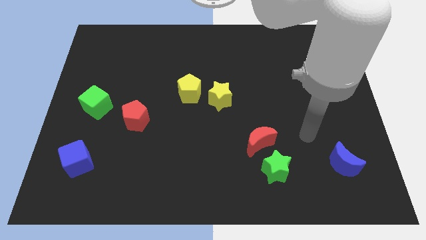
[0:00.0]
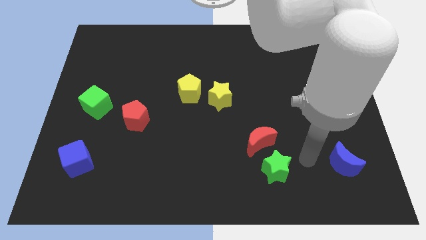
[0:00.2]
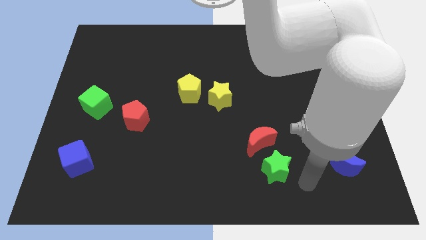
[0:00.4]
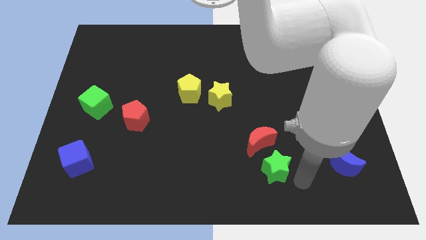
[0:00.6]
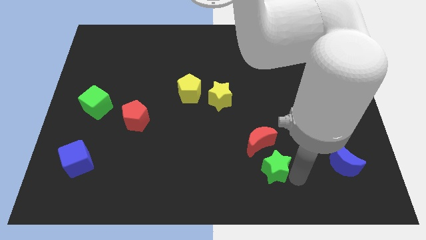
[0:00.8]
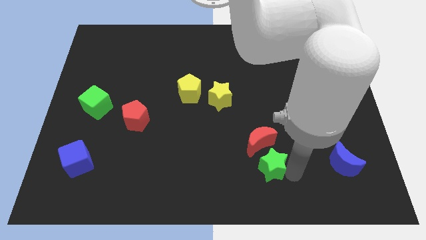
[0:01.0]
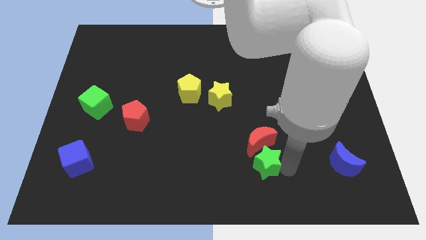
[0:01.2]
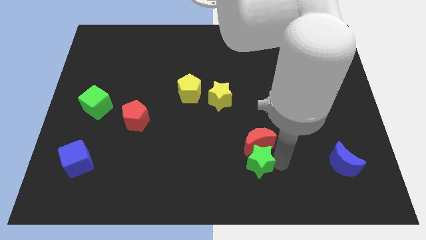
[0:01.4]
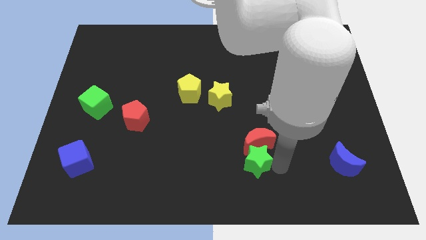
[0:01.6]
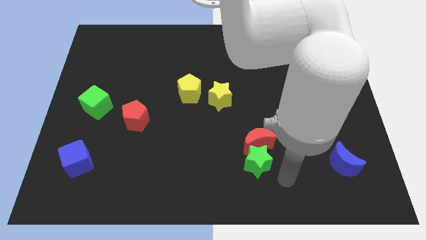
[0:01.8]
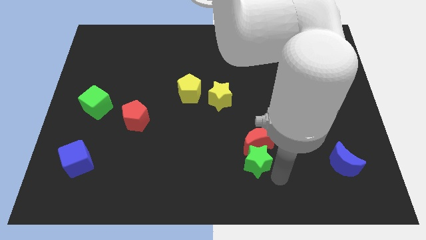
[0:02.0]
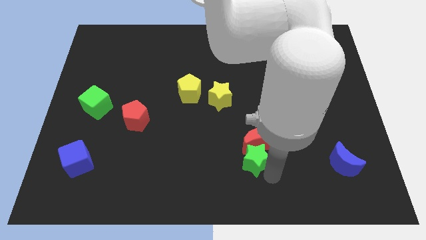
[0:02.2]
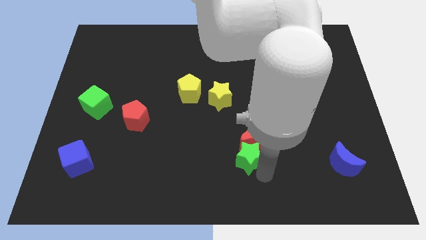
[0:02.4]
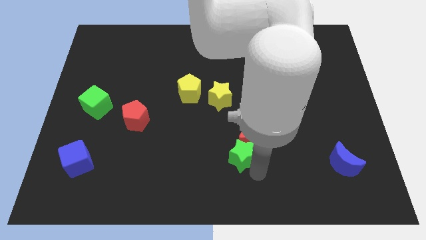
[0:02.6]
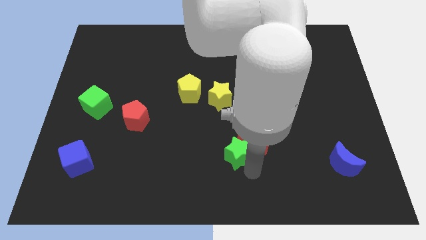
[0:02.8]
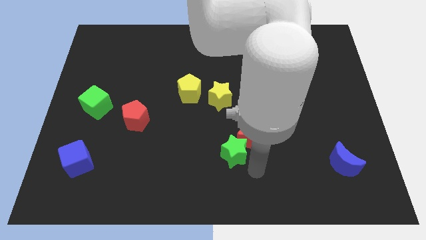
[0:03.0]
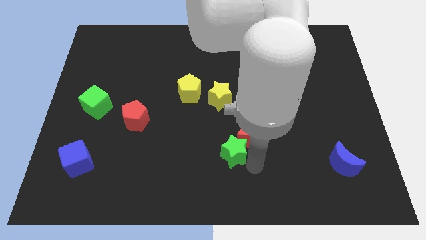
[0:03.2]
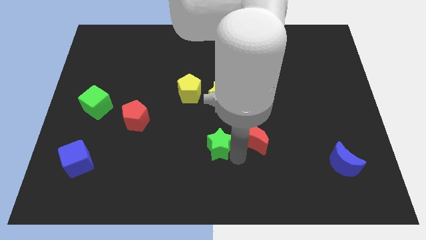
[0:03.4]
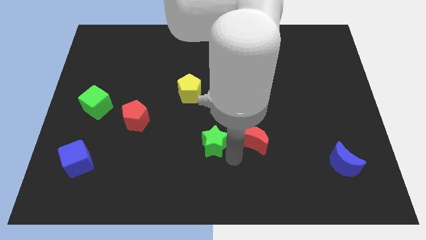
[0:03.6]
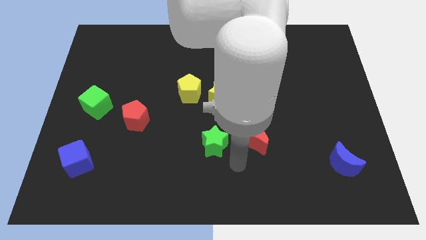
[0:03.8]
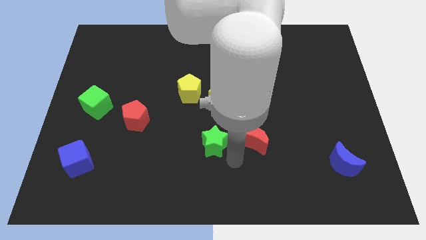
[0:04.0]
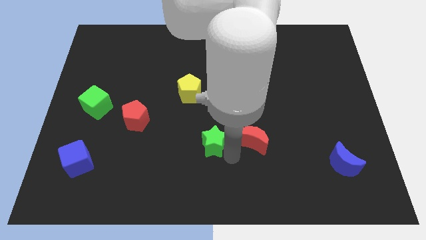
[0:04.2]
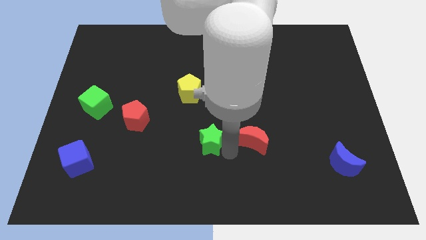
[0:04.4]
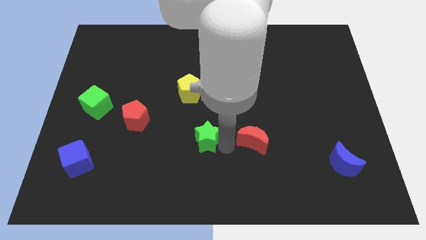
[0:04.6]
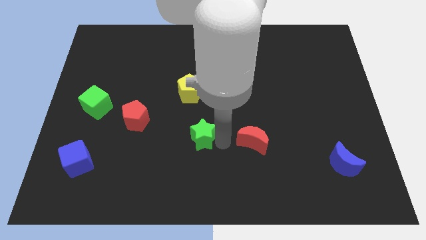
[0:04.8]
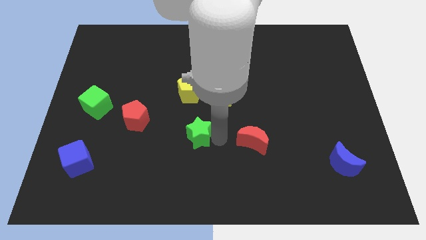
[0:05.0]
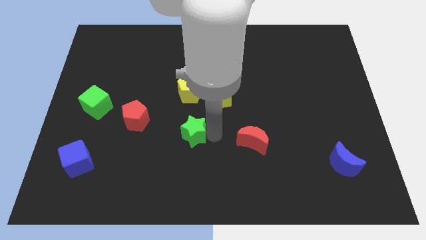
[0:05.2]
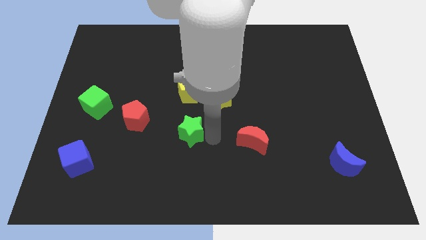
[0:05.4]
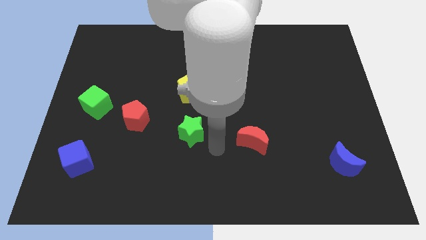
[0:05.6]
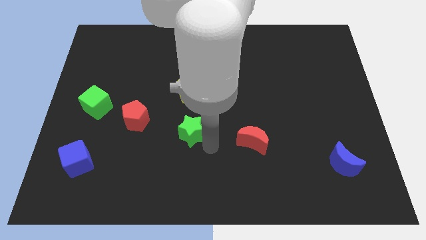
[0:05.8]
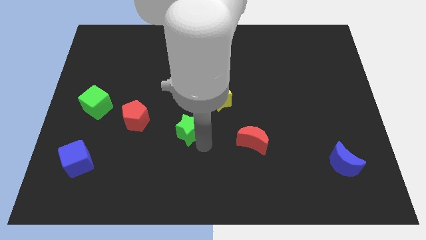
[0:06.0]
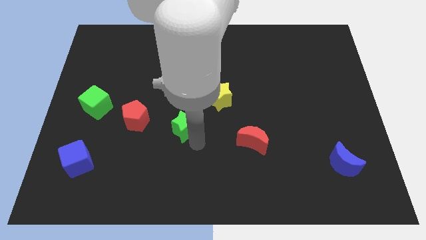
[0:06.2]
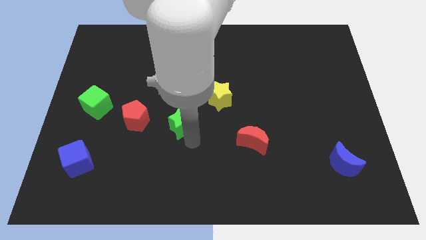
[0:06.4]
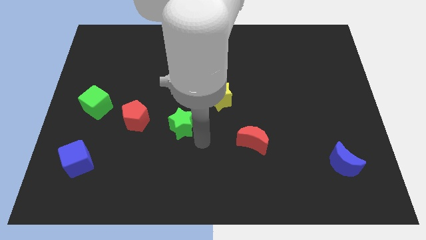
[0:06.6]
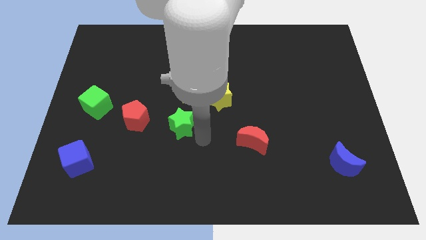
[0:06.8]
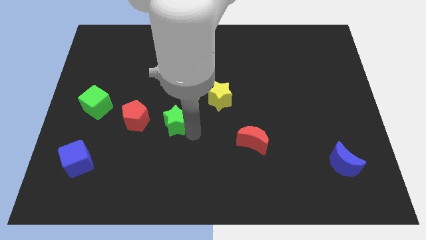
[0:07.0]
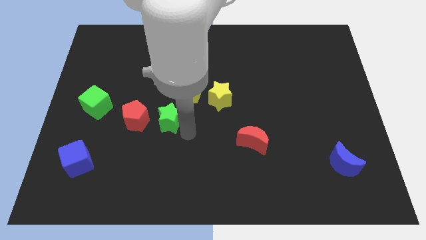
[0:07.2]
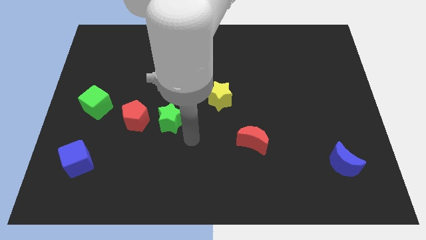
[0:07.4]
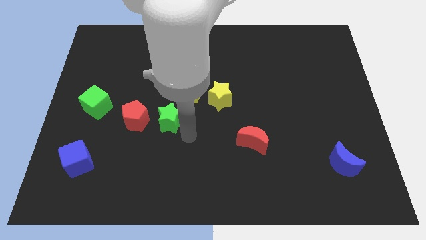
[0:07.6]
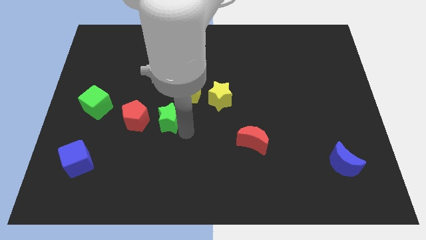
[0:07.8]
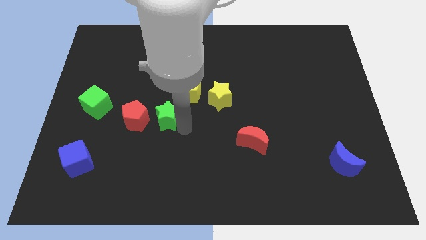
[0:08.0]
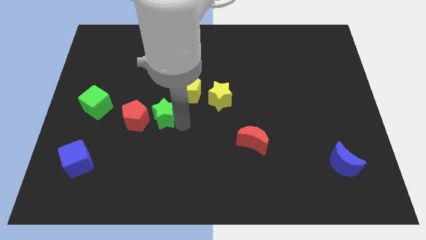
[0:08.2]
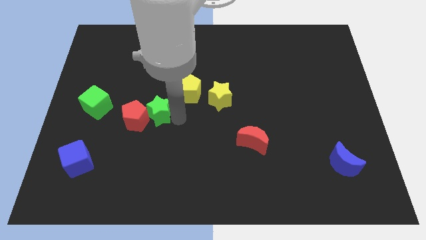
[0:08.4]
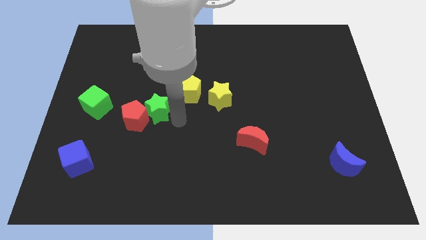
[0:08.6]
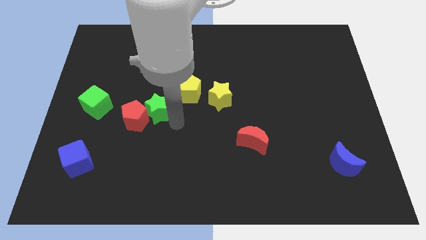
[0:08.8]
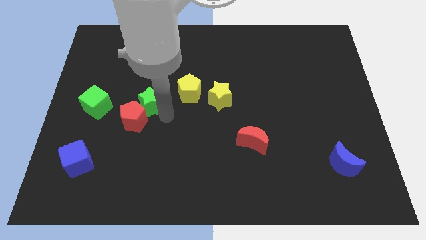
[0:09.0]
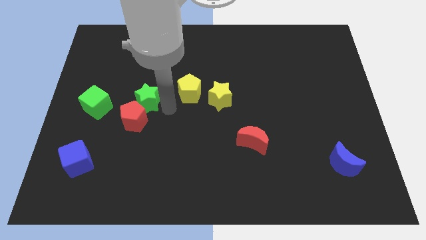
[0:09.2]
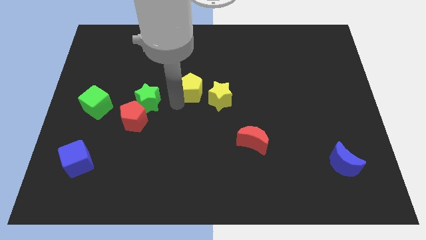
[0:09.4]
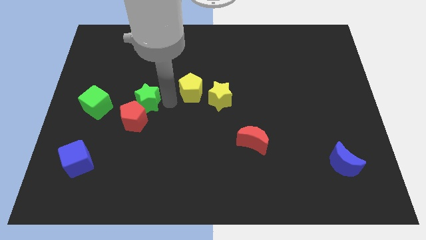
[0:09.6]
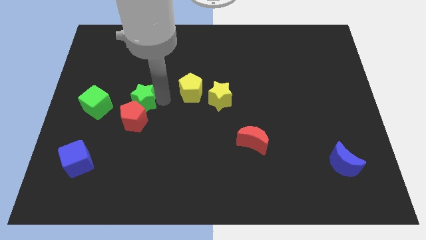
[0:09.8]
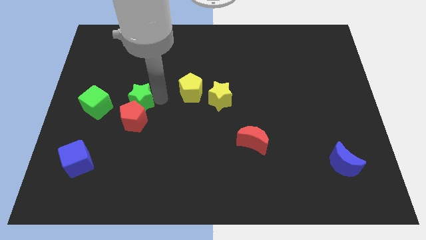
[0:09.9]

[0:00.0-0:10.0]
put the green star to the top left of the red pentagon

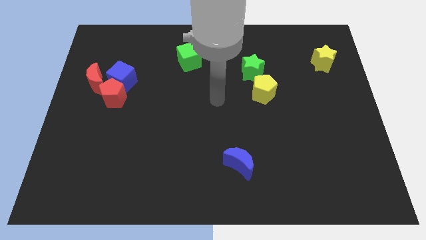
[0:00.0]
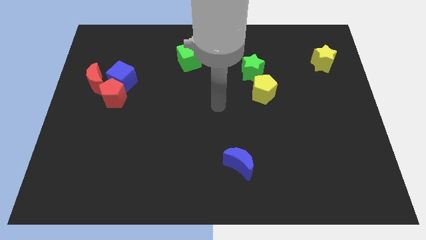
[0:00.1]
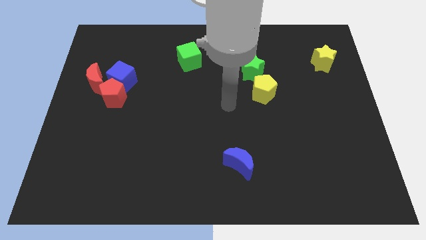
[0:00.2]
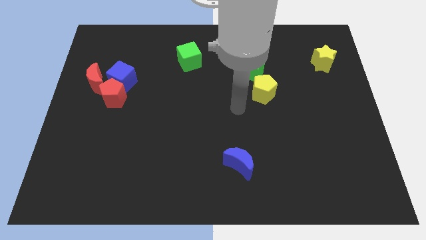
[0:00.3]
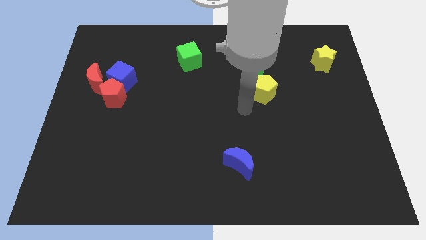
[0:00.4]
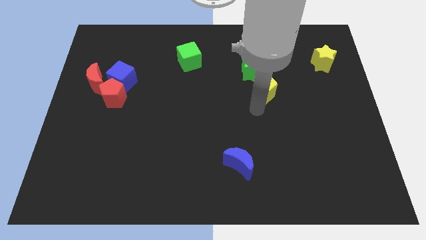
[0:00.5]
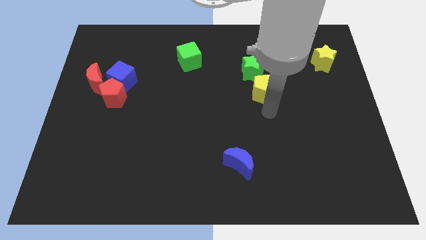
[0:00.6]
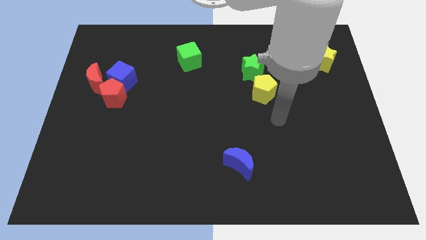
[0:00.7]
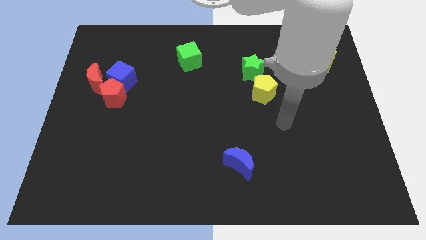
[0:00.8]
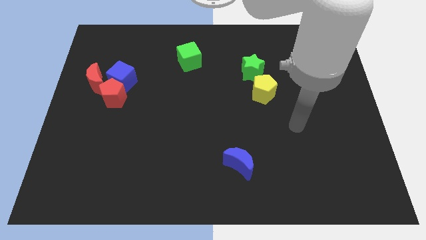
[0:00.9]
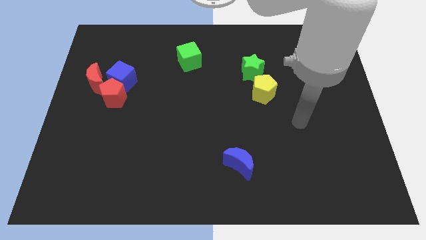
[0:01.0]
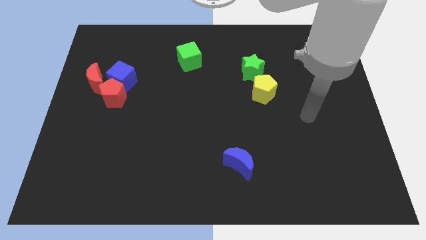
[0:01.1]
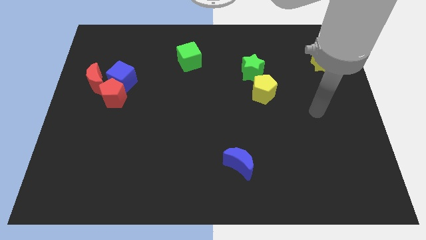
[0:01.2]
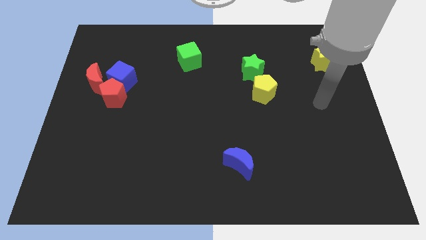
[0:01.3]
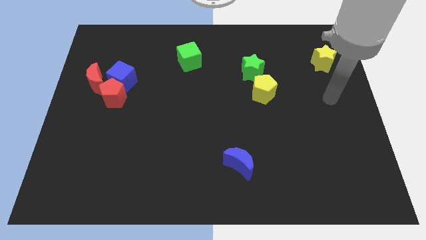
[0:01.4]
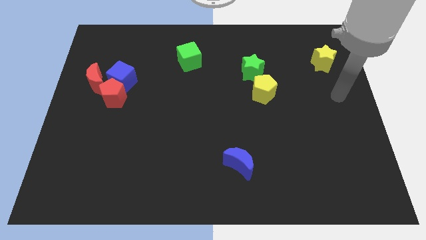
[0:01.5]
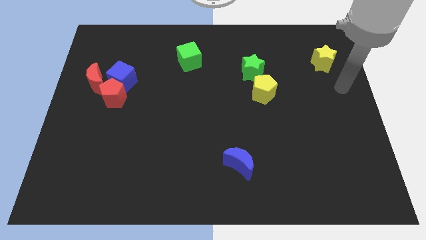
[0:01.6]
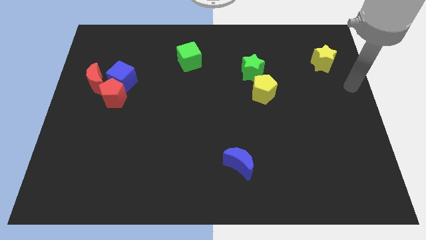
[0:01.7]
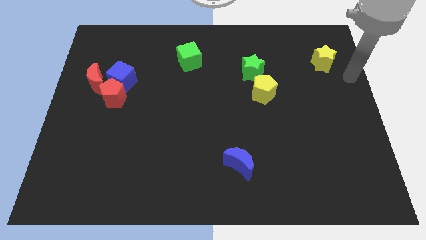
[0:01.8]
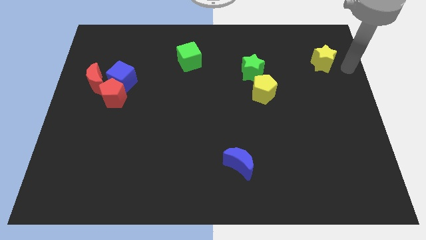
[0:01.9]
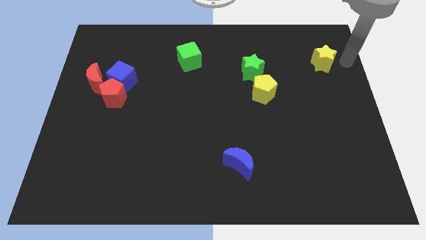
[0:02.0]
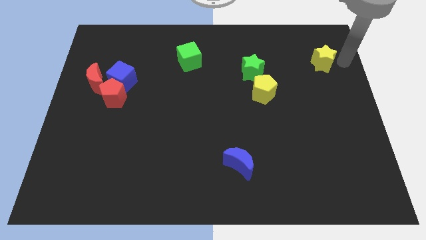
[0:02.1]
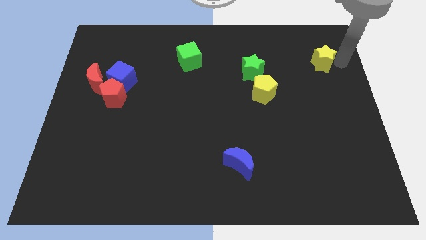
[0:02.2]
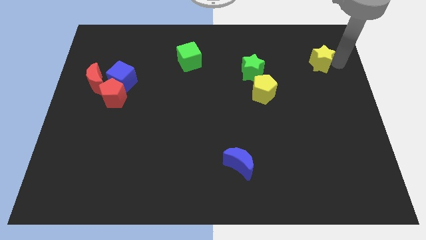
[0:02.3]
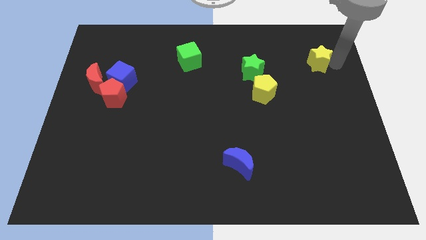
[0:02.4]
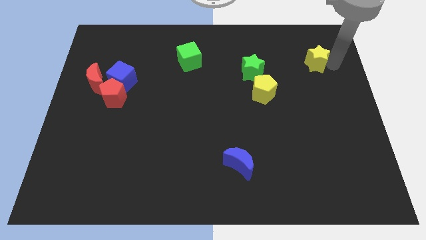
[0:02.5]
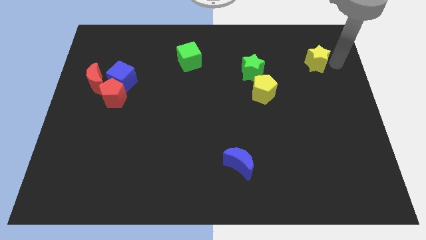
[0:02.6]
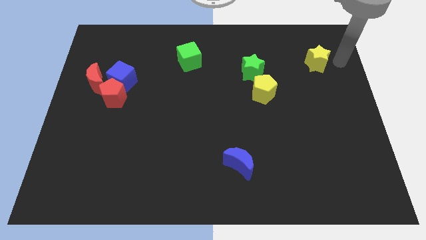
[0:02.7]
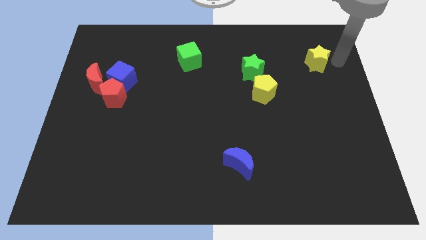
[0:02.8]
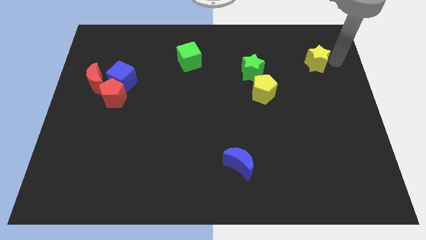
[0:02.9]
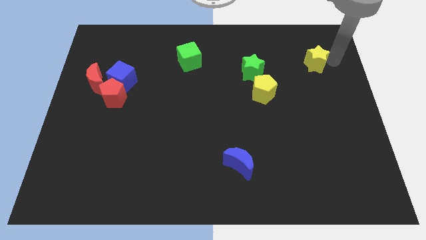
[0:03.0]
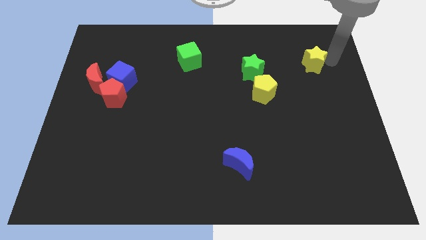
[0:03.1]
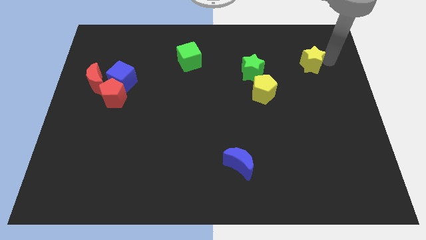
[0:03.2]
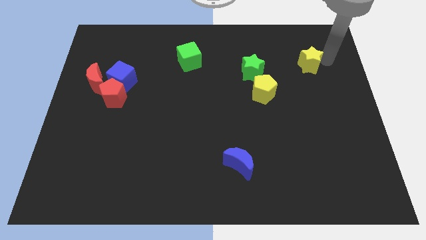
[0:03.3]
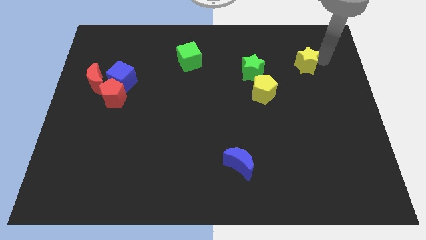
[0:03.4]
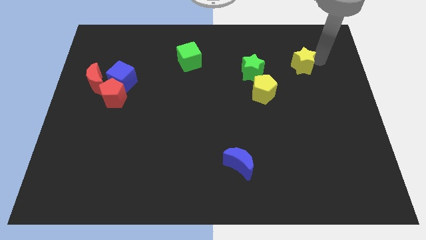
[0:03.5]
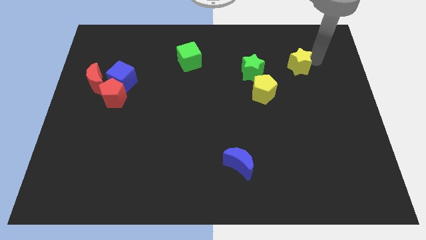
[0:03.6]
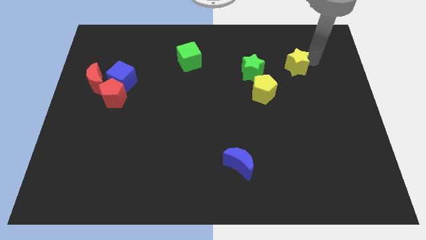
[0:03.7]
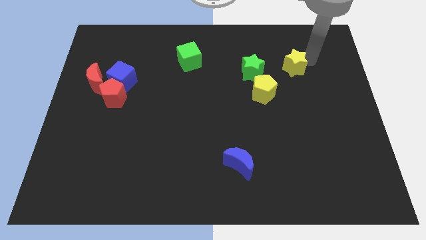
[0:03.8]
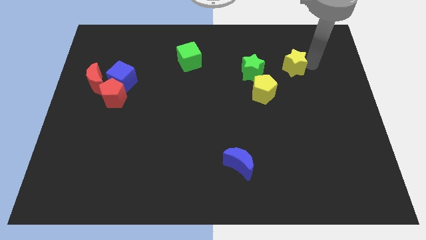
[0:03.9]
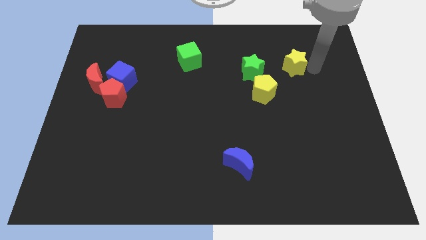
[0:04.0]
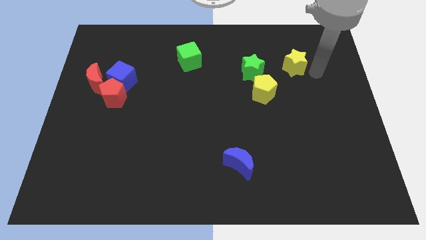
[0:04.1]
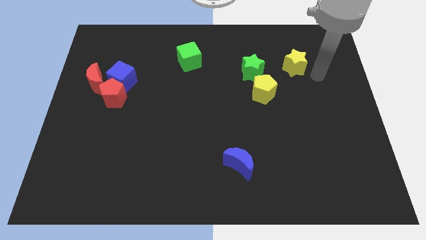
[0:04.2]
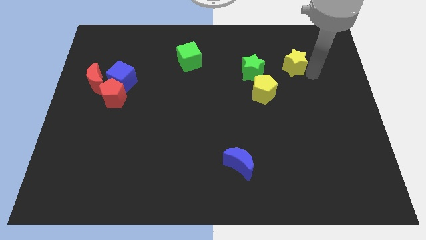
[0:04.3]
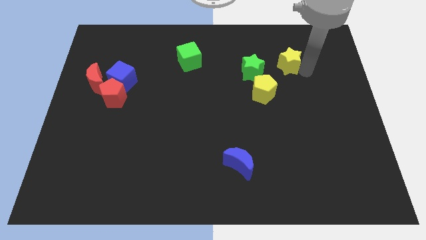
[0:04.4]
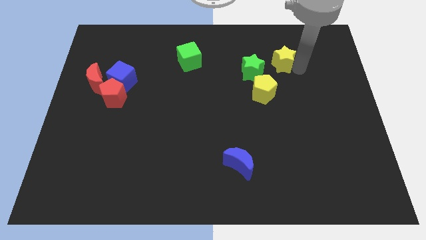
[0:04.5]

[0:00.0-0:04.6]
slide the yellow star diagonally up and to the right of the green star
